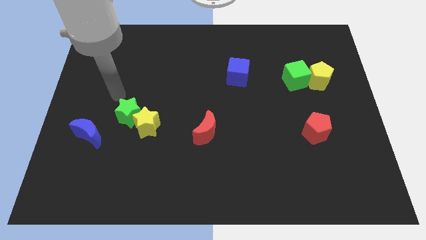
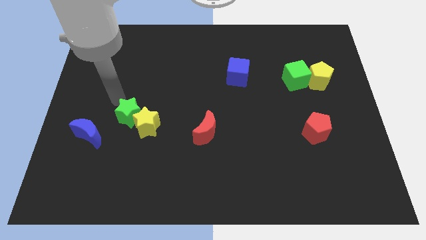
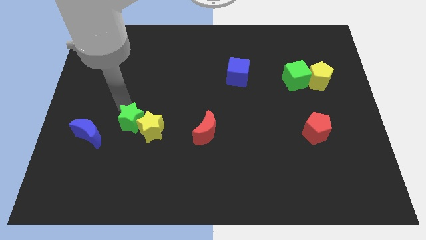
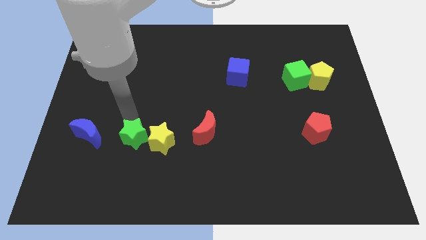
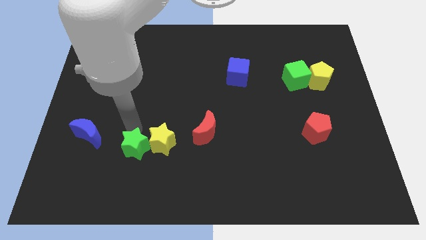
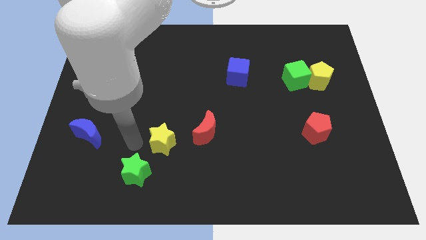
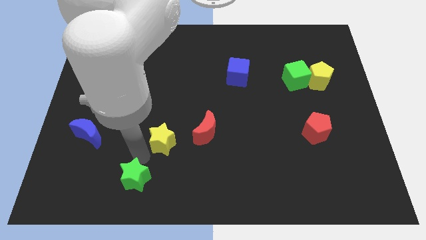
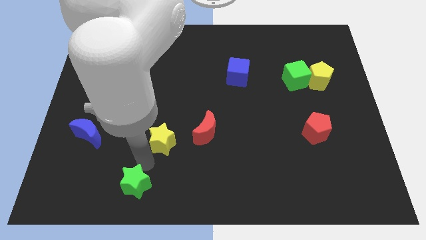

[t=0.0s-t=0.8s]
move the yellow star away from the green star

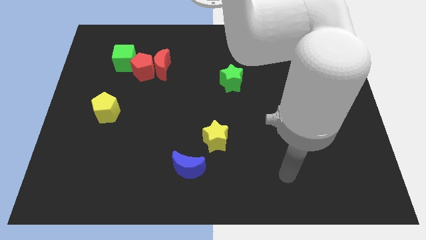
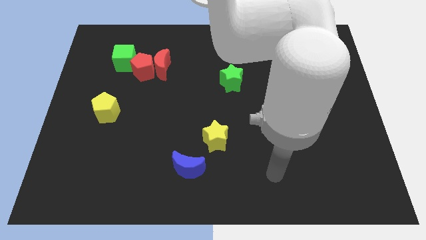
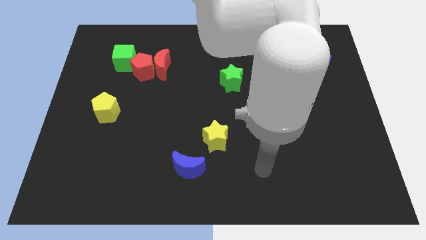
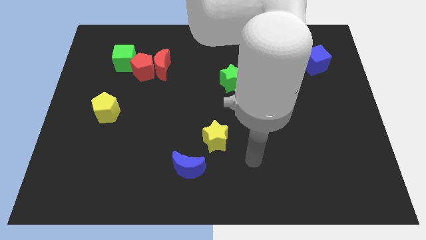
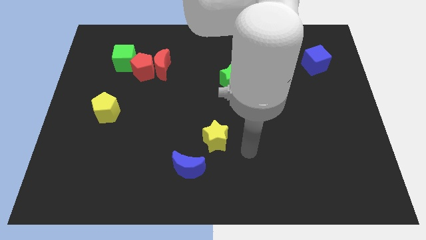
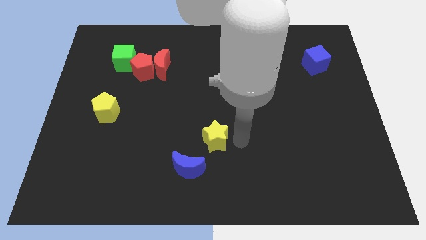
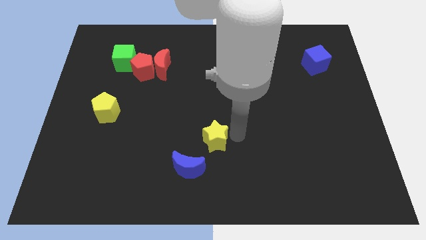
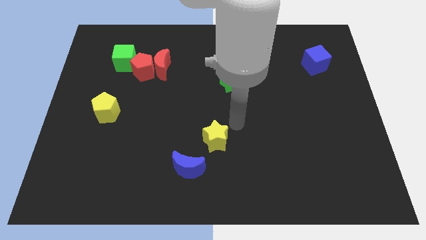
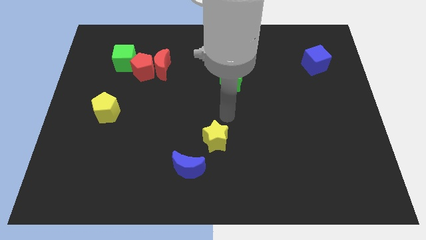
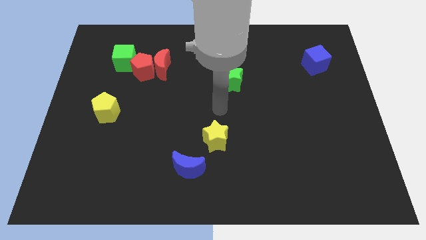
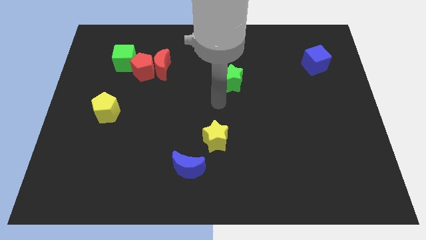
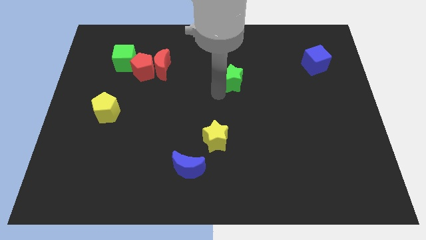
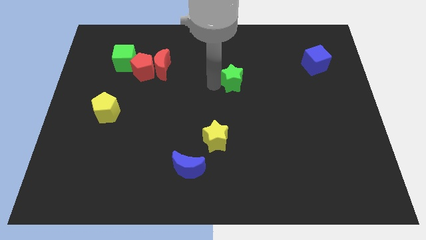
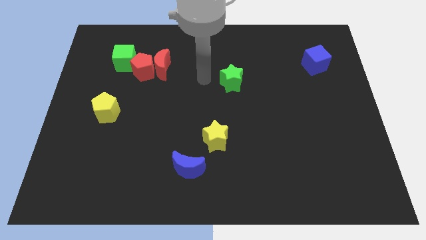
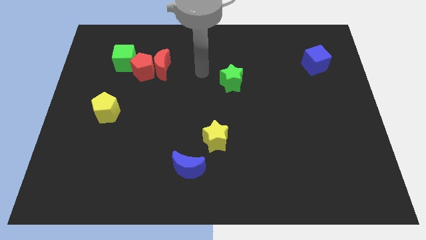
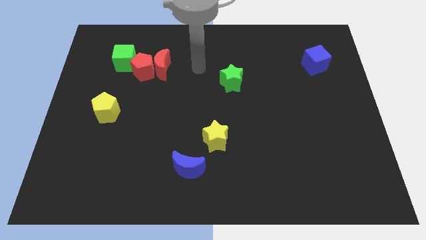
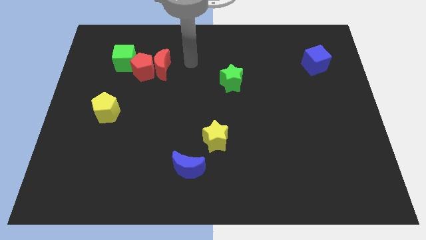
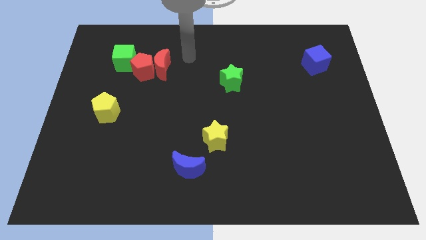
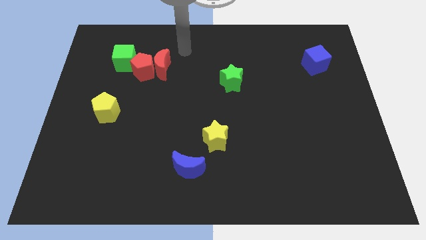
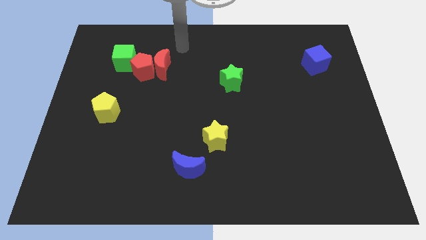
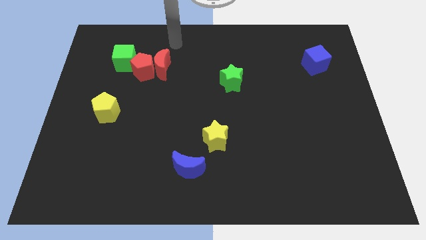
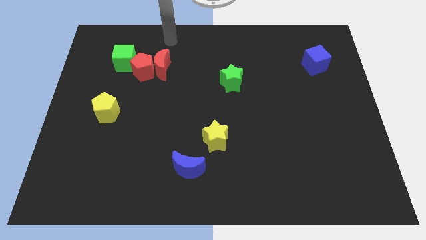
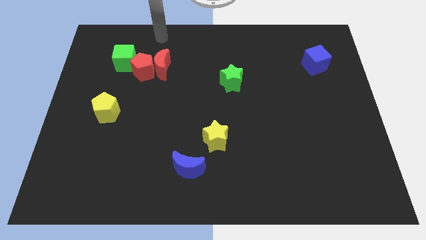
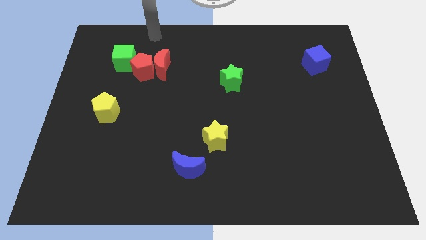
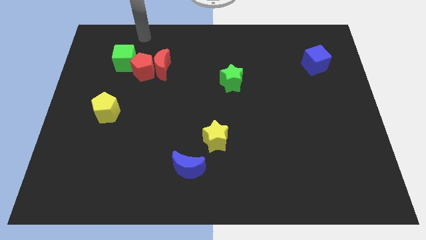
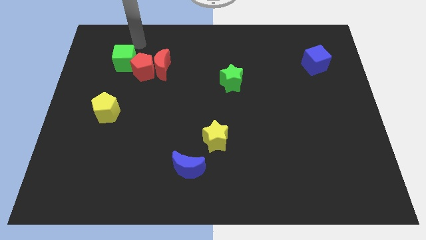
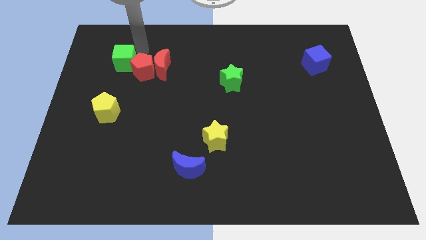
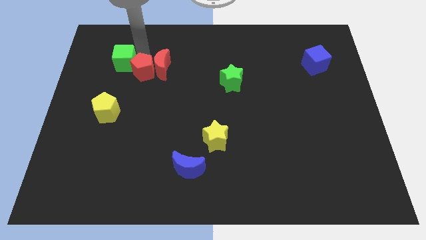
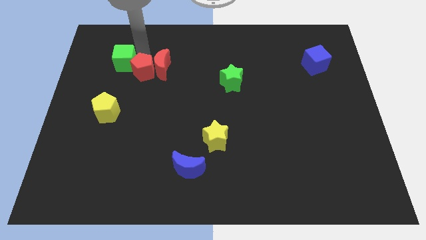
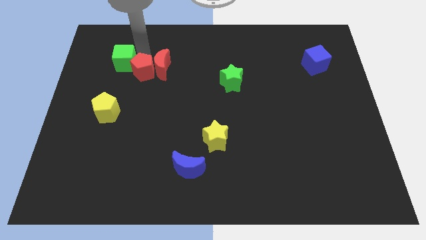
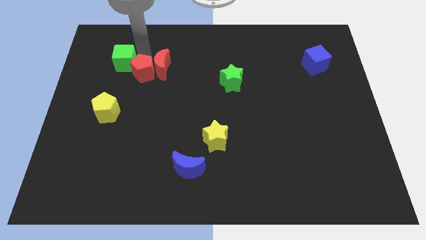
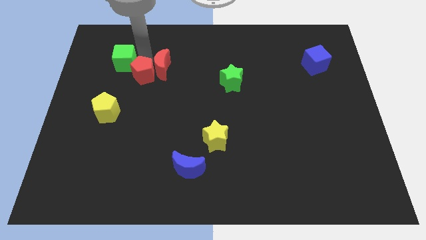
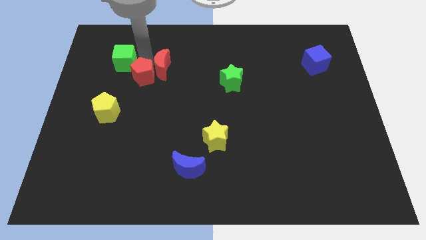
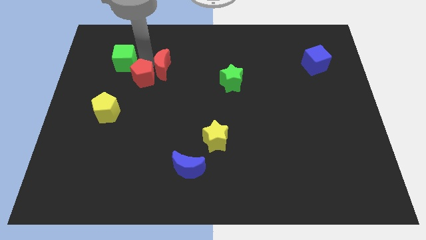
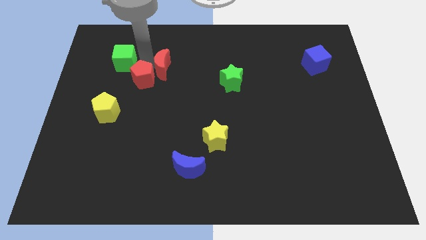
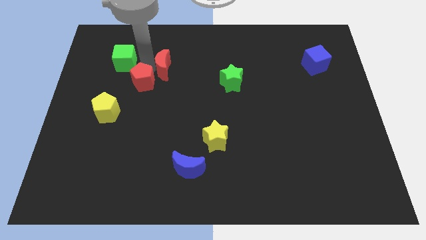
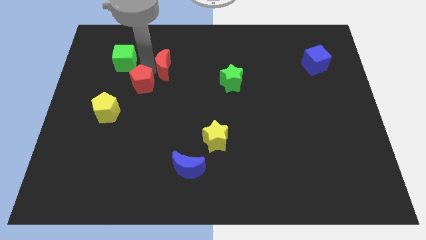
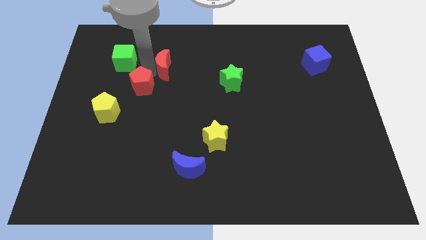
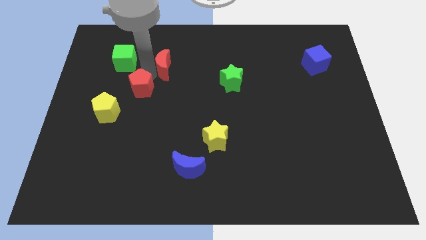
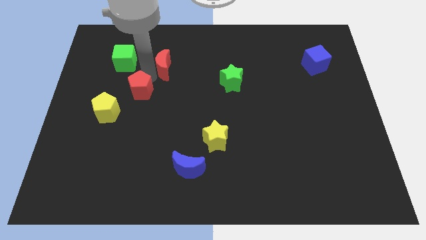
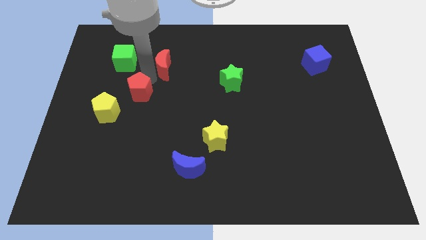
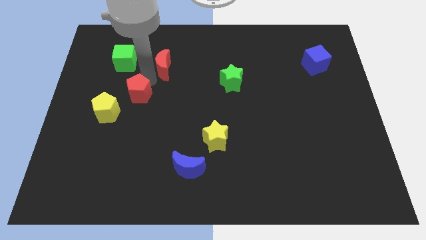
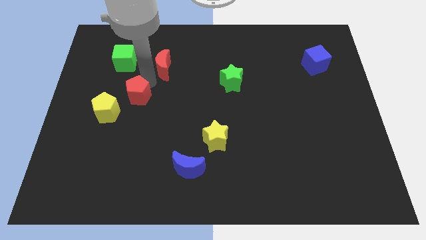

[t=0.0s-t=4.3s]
separate the red pentagon from the red moon and green cube

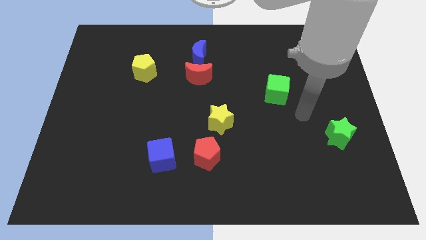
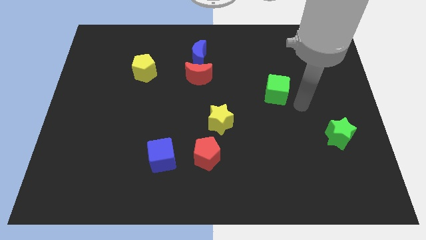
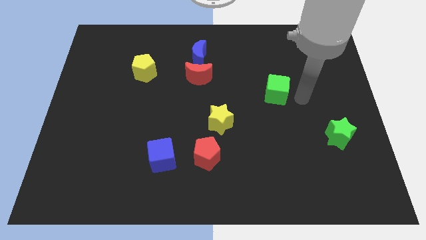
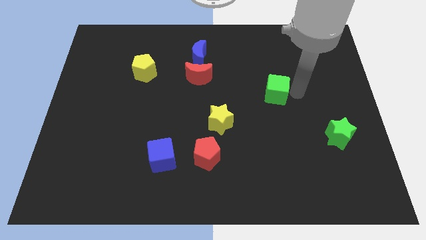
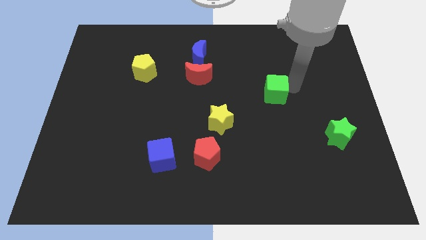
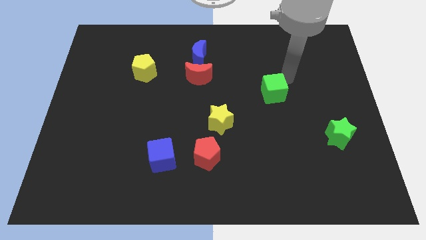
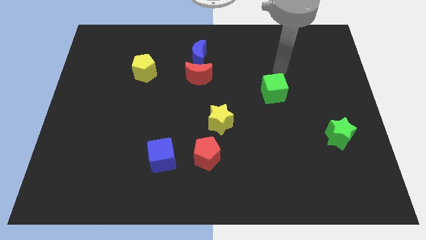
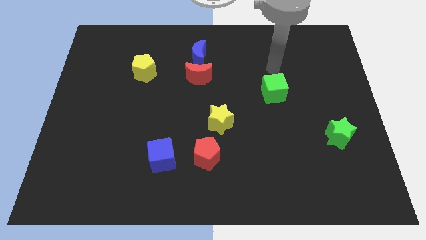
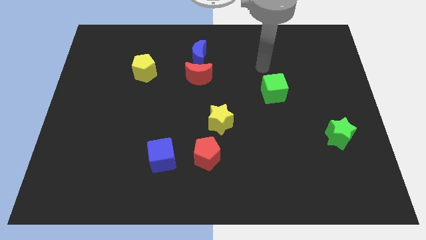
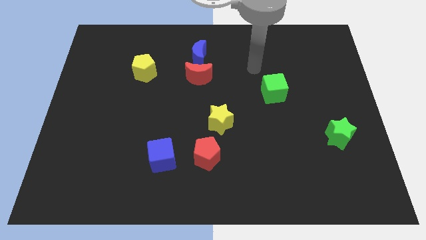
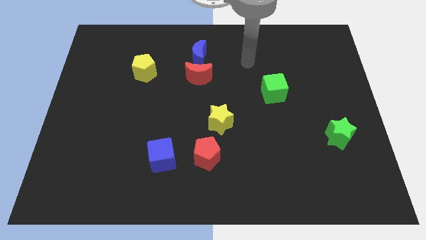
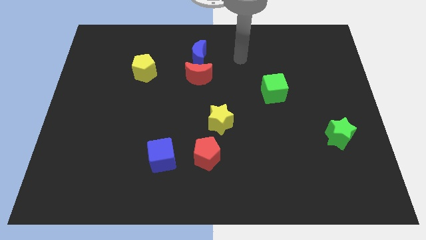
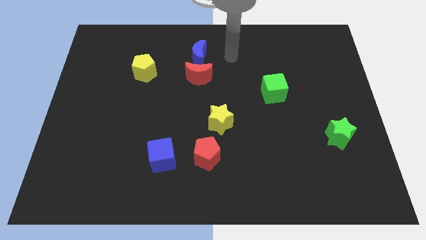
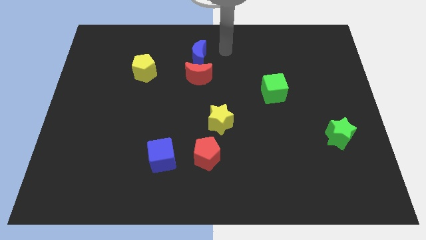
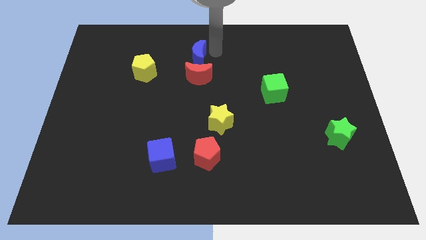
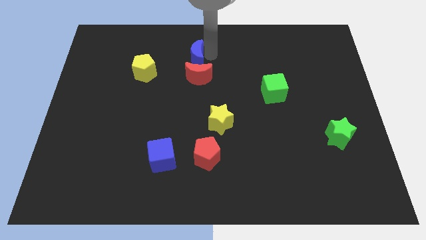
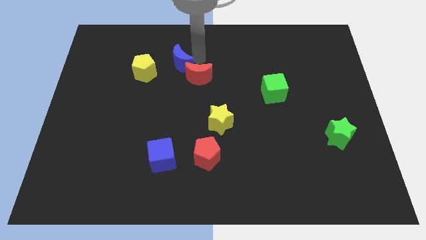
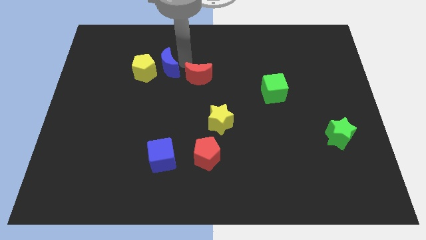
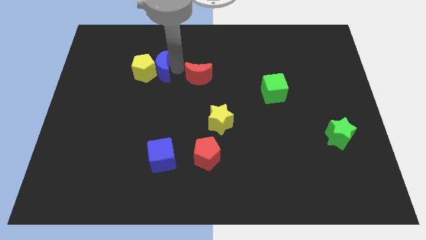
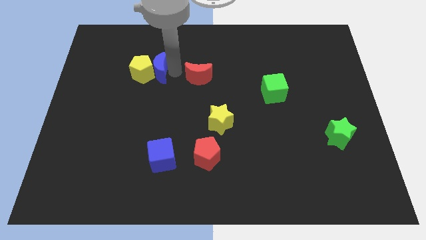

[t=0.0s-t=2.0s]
pull the red moon apart from the blue moon

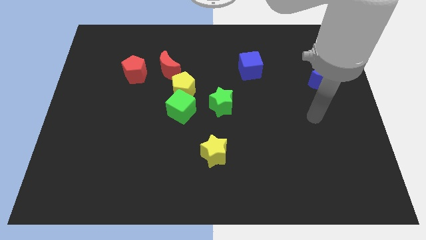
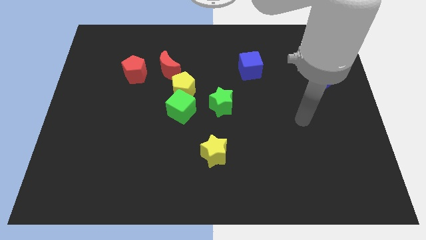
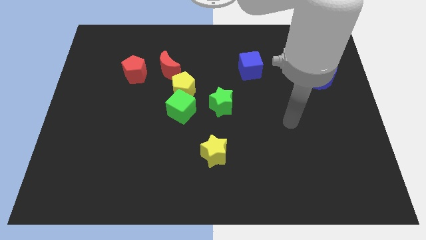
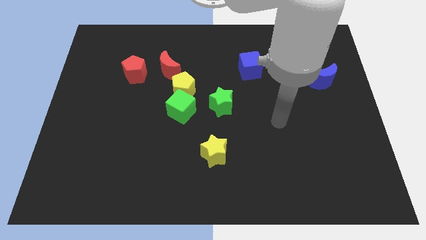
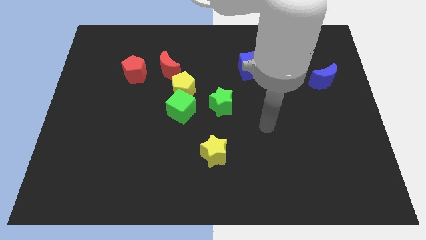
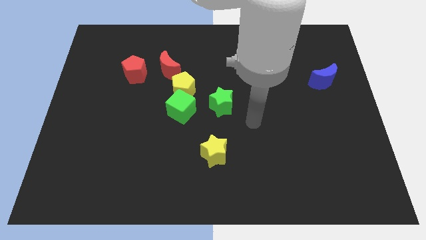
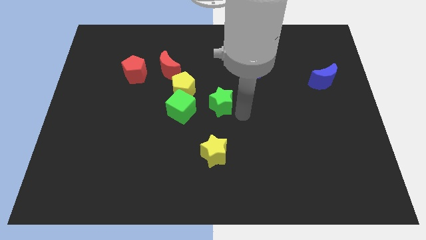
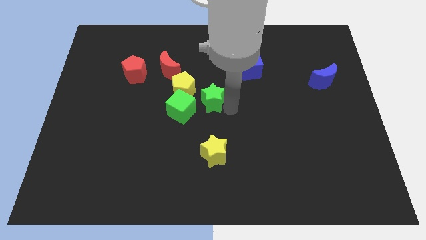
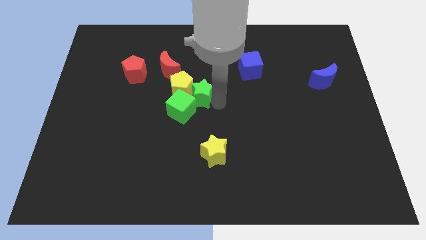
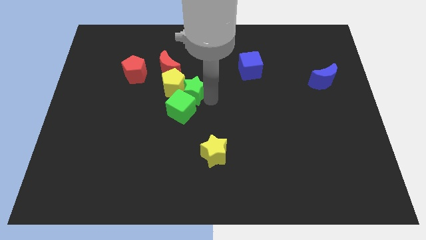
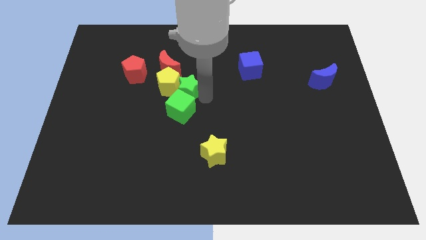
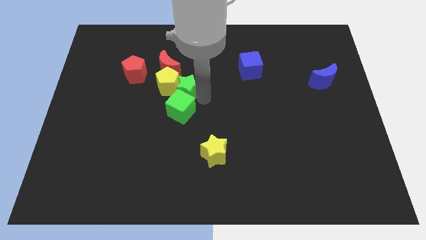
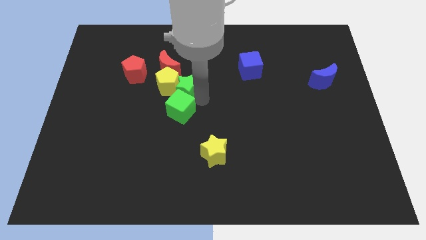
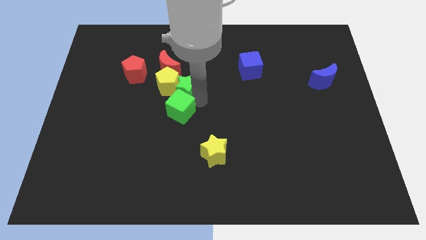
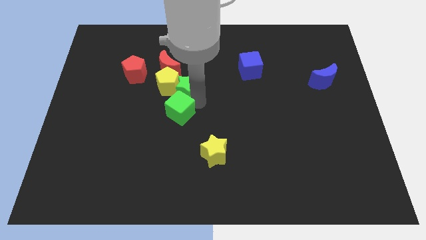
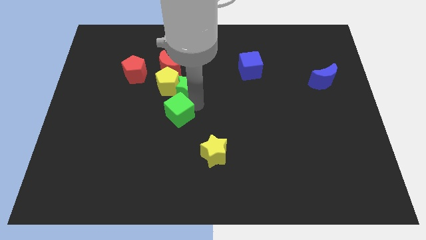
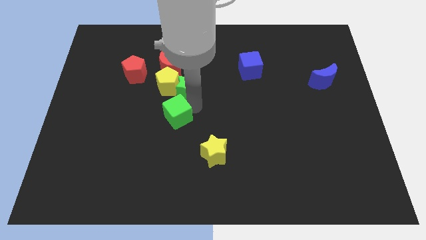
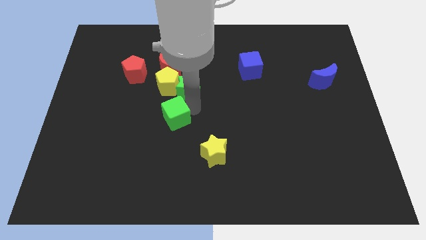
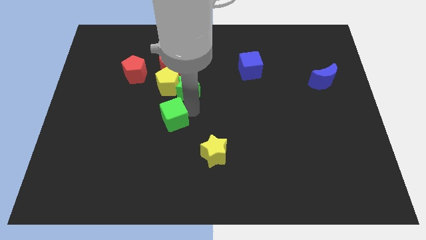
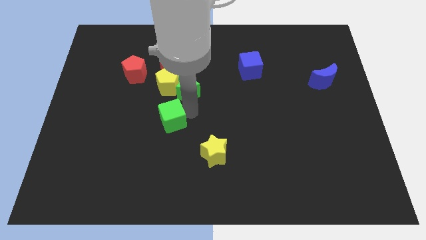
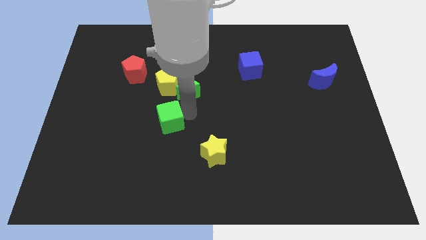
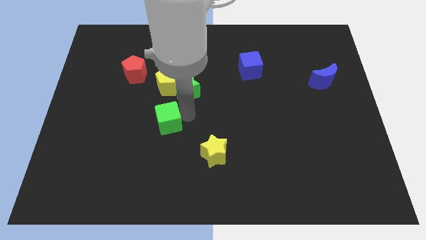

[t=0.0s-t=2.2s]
move the green cube away from the yellow pentagon and green star

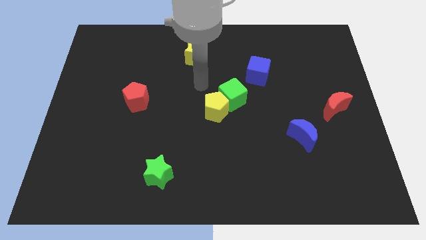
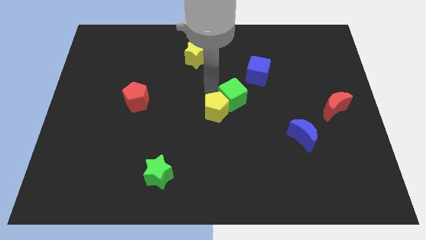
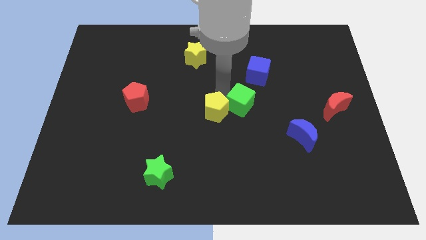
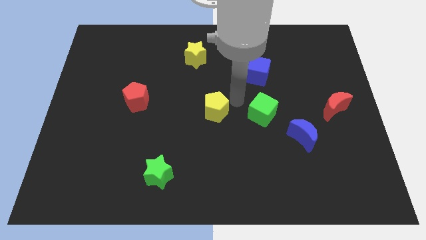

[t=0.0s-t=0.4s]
move the yellow pentagon away from the green cube
